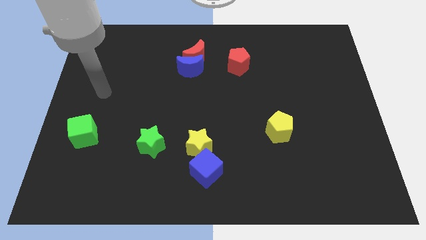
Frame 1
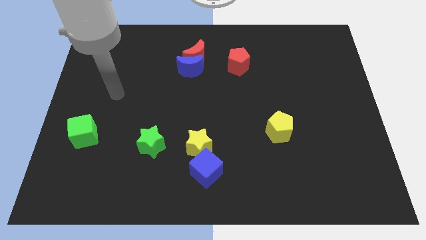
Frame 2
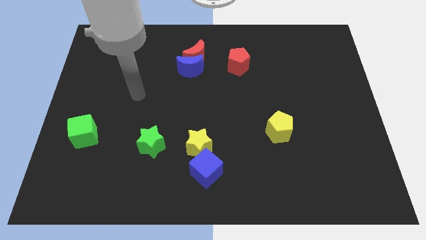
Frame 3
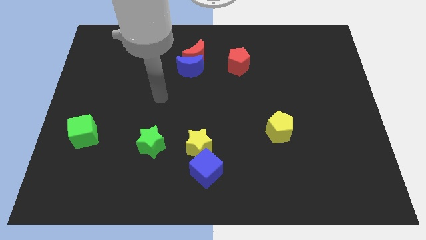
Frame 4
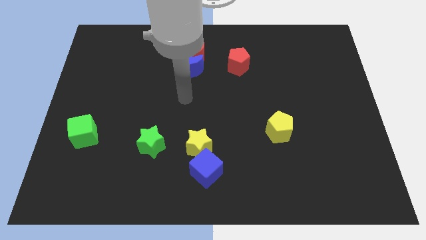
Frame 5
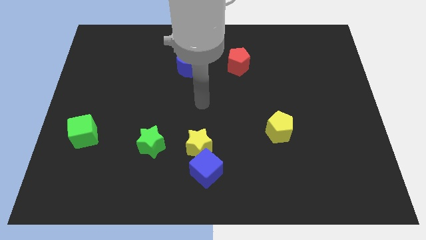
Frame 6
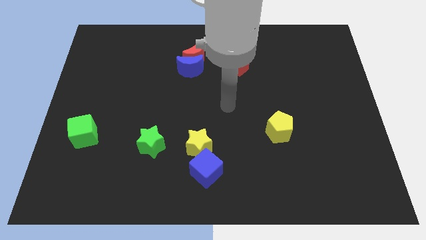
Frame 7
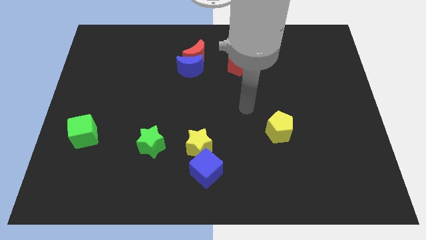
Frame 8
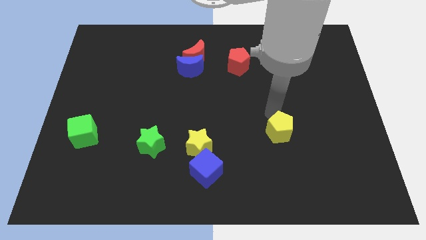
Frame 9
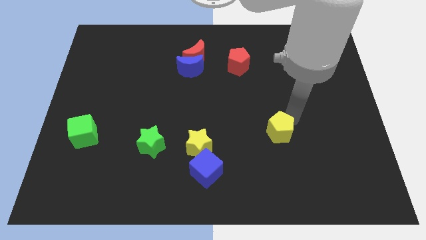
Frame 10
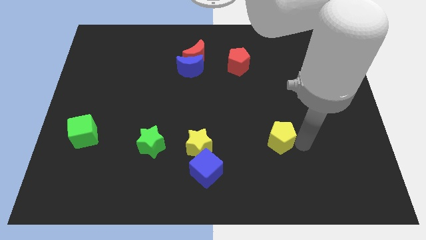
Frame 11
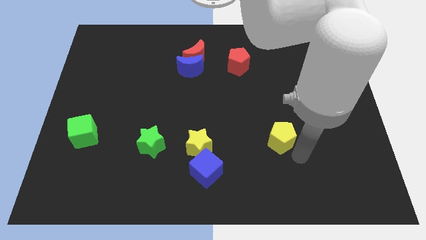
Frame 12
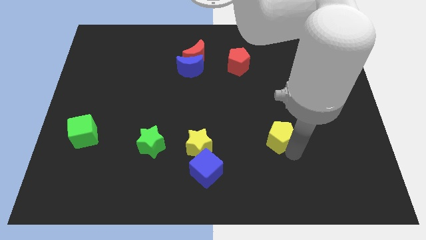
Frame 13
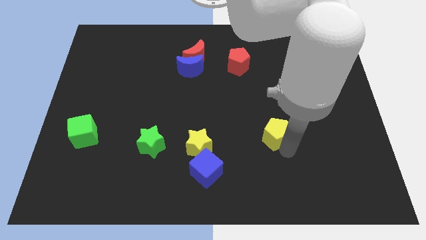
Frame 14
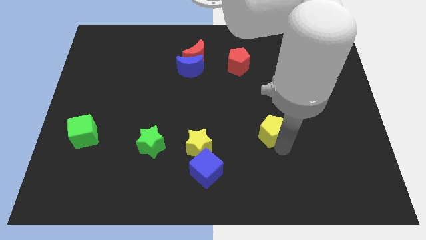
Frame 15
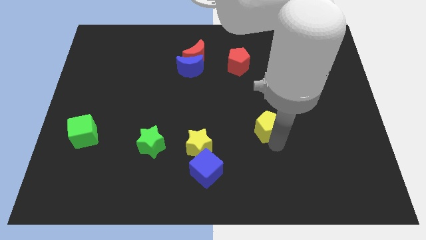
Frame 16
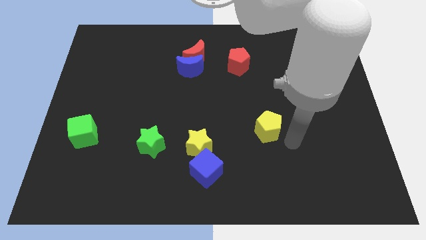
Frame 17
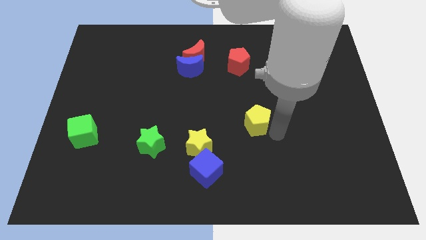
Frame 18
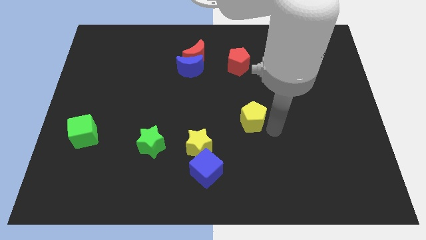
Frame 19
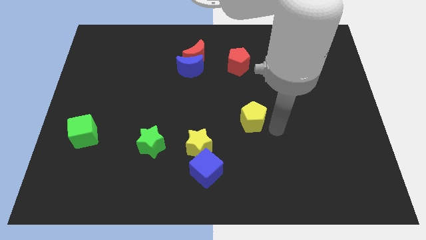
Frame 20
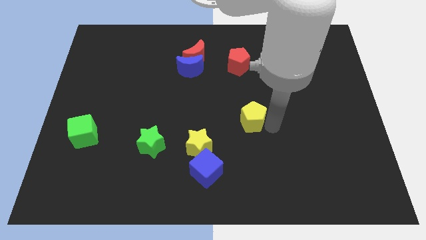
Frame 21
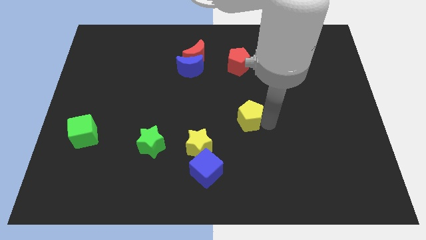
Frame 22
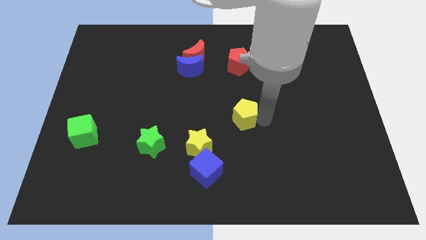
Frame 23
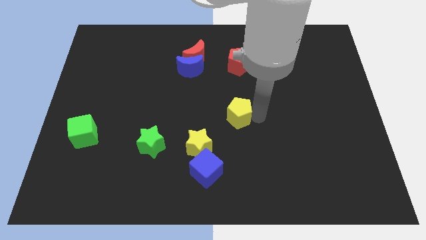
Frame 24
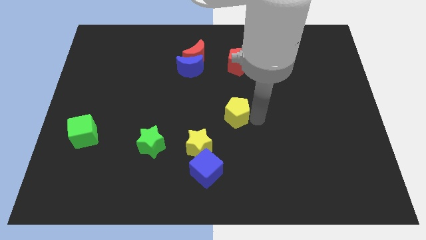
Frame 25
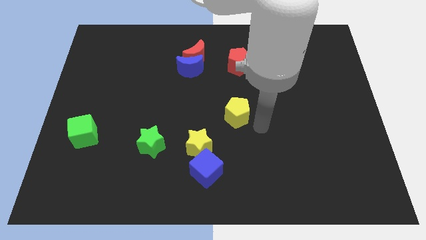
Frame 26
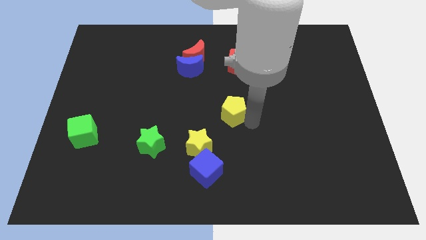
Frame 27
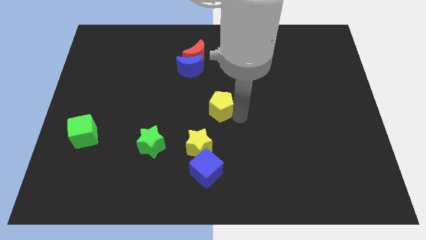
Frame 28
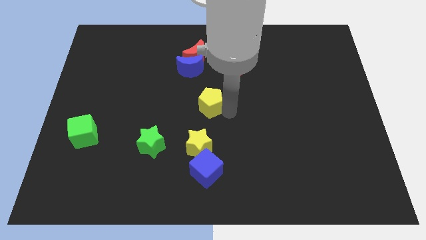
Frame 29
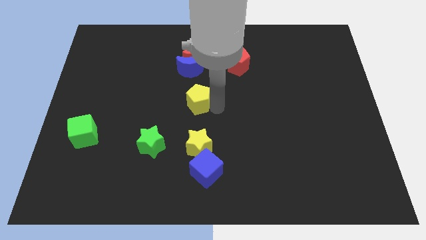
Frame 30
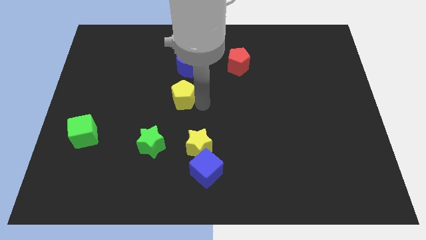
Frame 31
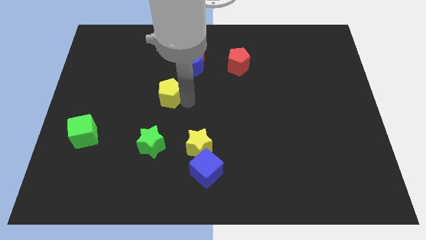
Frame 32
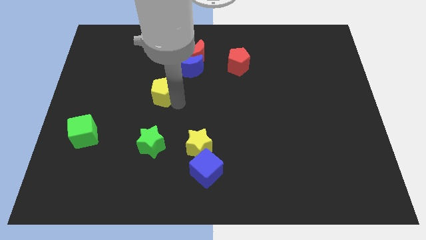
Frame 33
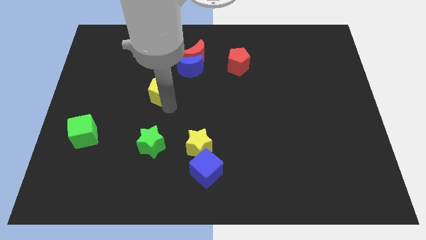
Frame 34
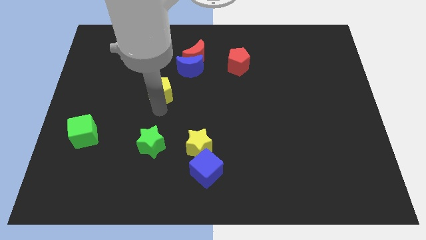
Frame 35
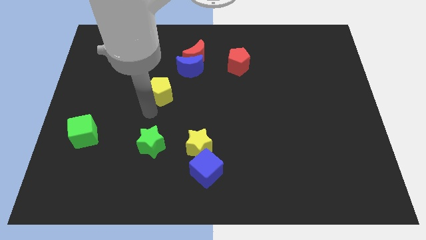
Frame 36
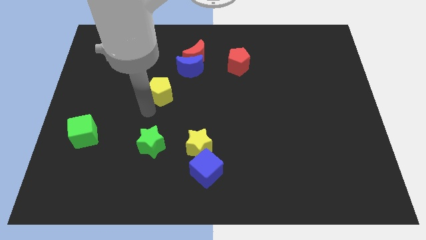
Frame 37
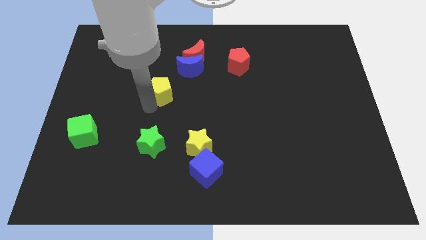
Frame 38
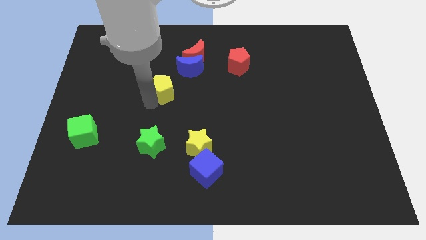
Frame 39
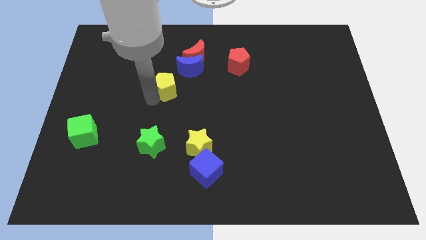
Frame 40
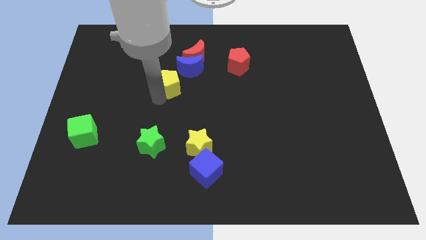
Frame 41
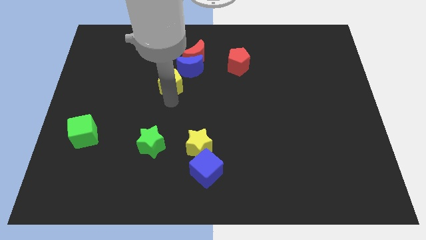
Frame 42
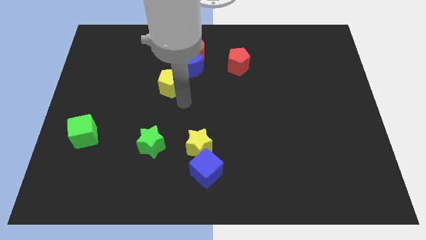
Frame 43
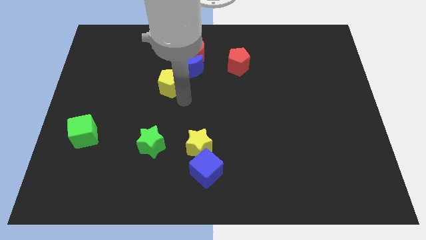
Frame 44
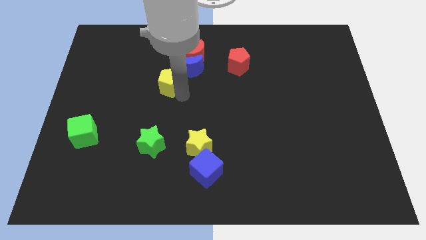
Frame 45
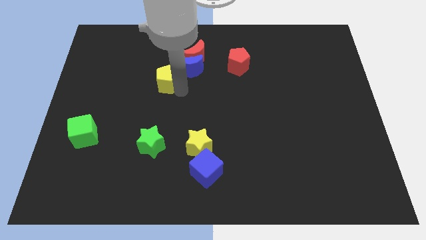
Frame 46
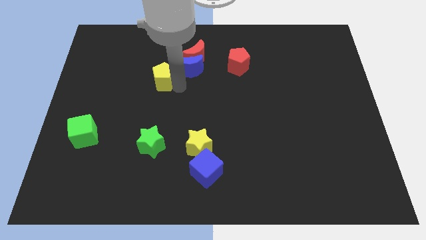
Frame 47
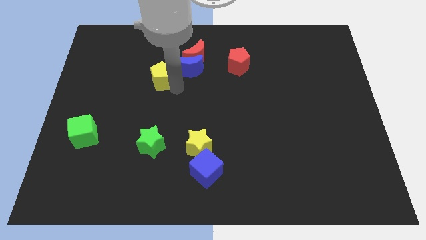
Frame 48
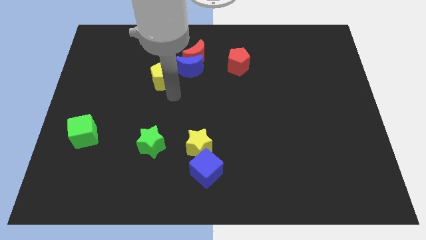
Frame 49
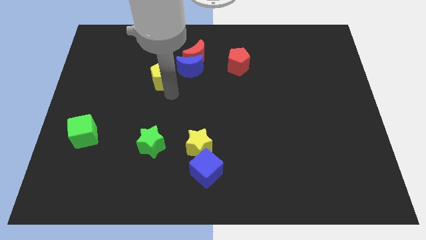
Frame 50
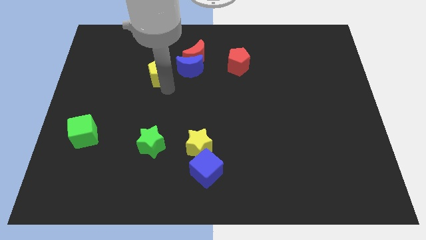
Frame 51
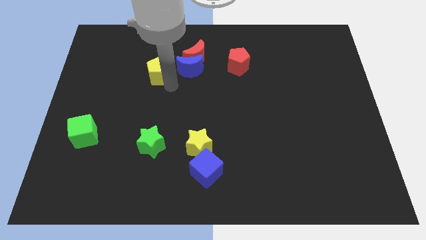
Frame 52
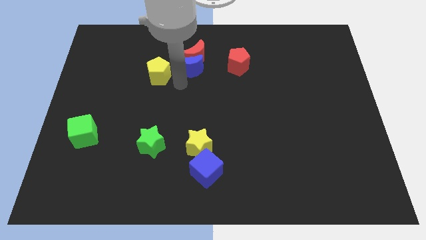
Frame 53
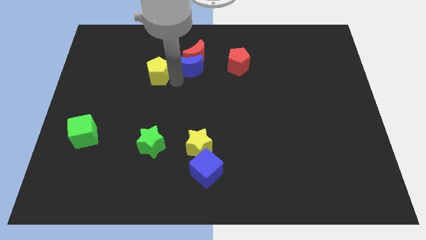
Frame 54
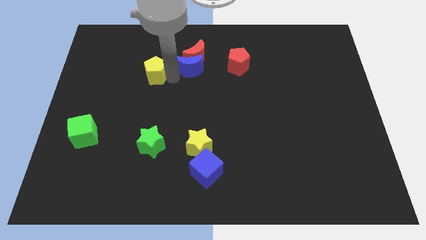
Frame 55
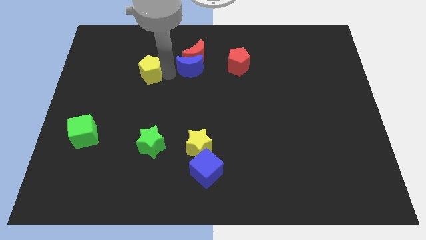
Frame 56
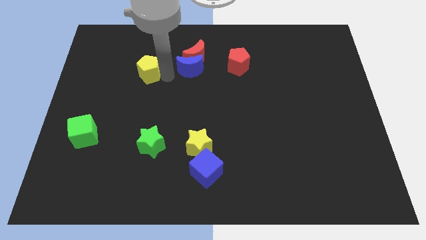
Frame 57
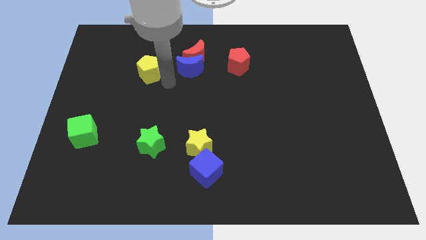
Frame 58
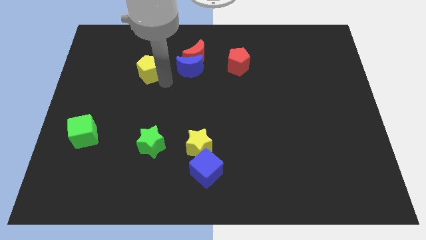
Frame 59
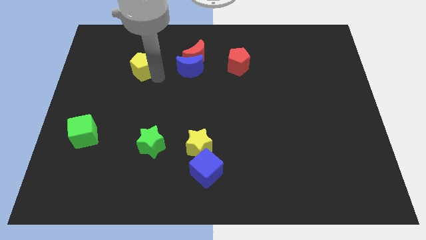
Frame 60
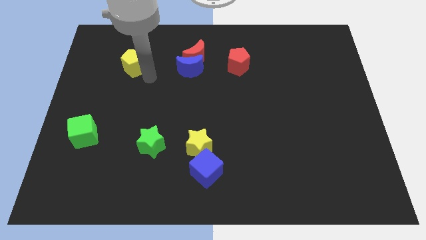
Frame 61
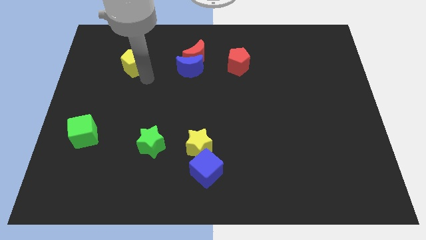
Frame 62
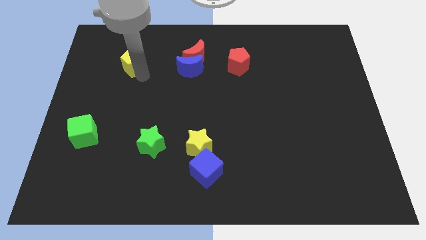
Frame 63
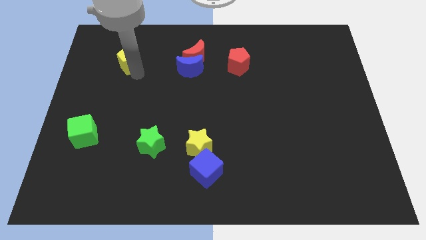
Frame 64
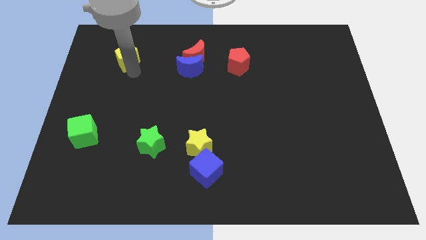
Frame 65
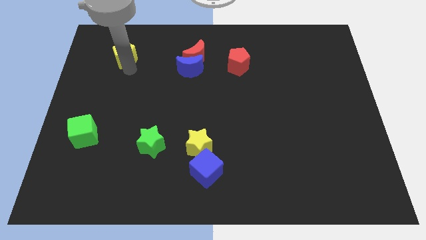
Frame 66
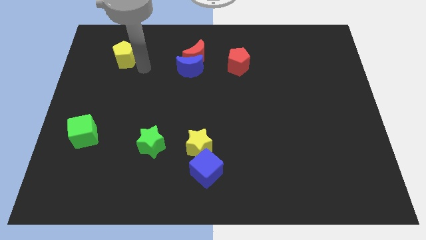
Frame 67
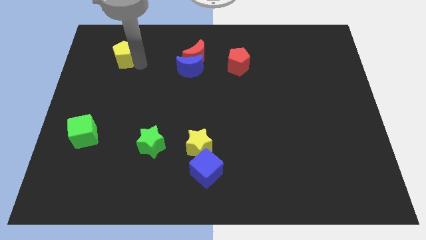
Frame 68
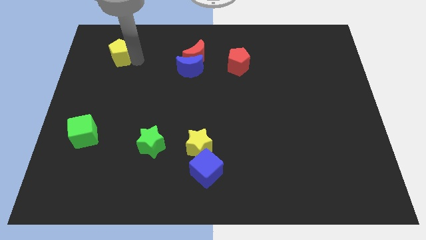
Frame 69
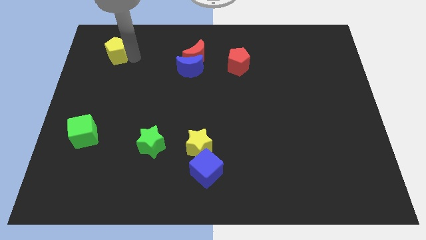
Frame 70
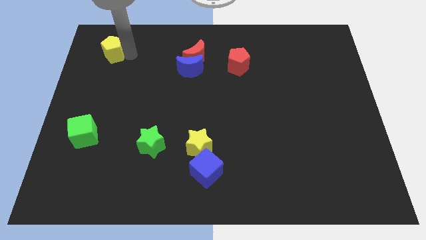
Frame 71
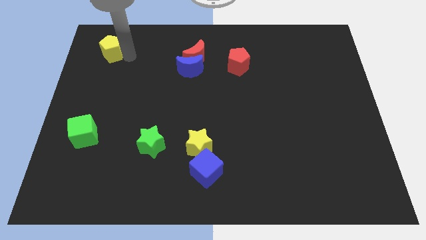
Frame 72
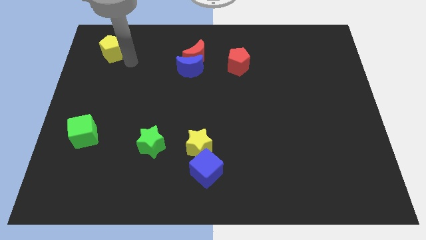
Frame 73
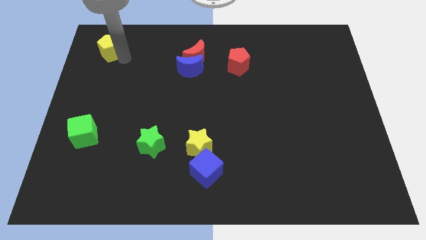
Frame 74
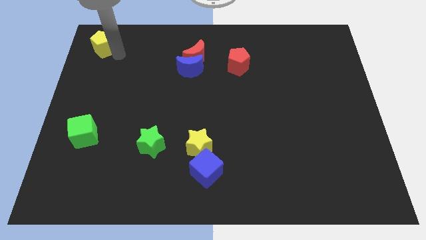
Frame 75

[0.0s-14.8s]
slide the yellow pentagon to the top left
